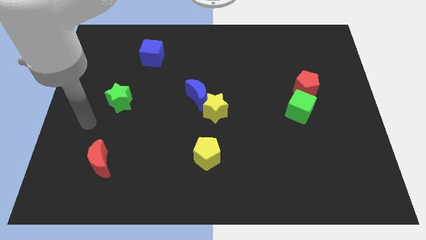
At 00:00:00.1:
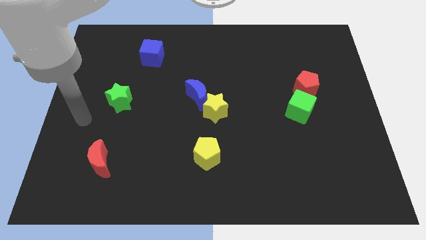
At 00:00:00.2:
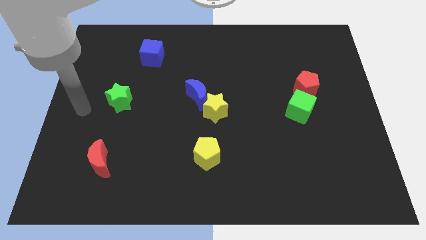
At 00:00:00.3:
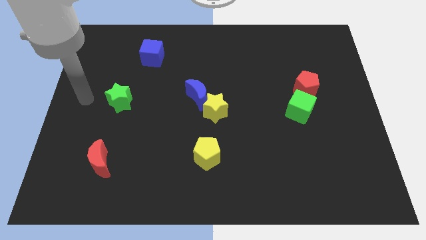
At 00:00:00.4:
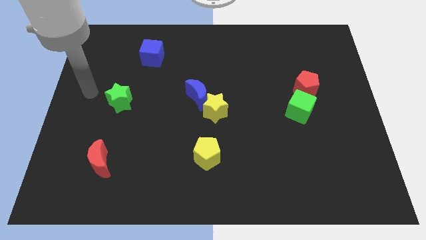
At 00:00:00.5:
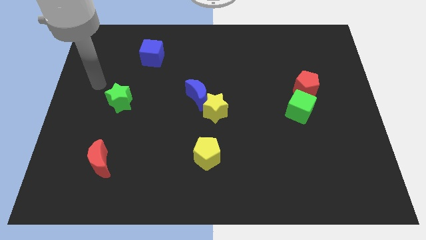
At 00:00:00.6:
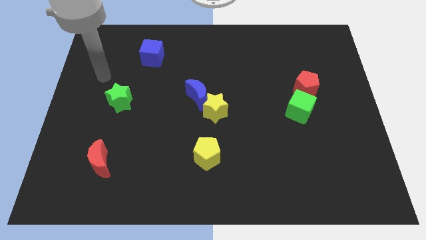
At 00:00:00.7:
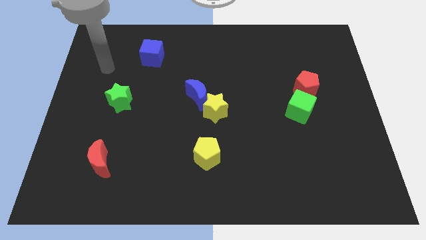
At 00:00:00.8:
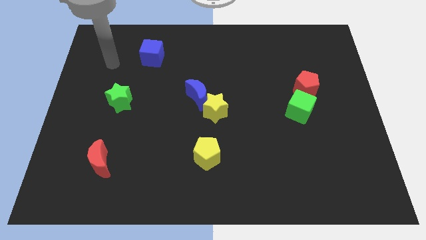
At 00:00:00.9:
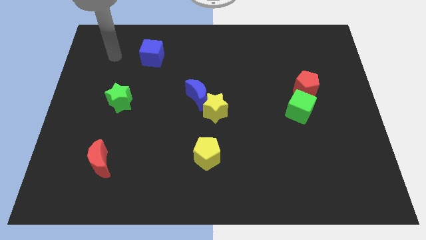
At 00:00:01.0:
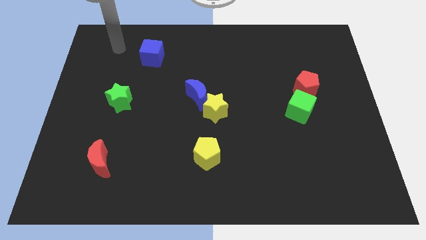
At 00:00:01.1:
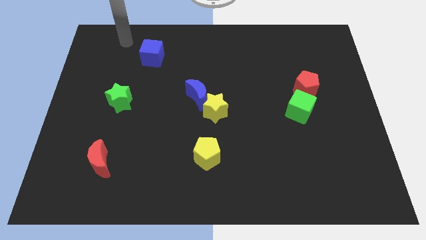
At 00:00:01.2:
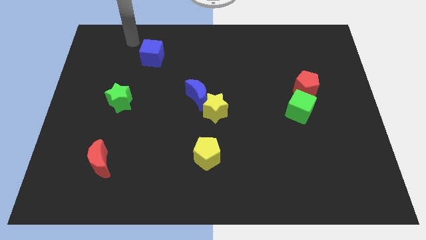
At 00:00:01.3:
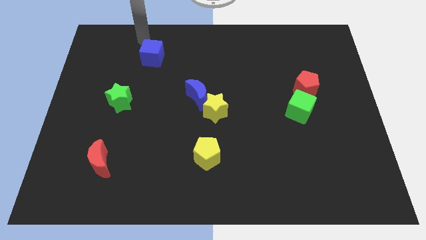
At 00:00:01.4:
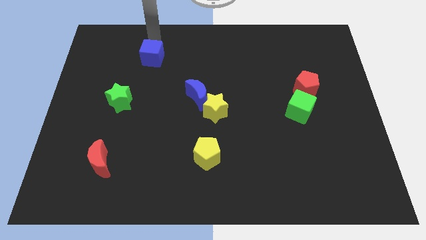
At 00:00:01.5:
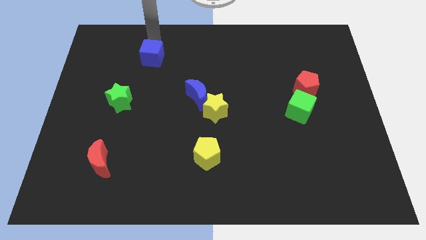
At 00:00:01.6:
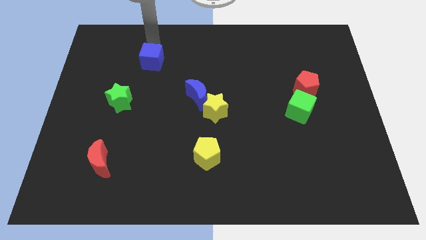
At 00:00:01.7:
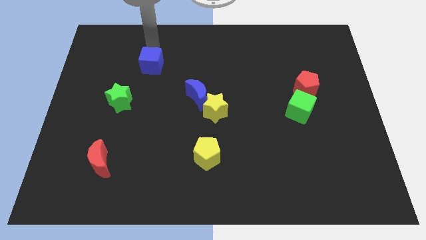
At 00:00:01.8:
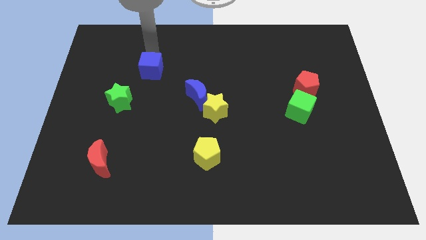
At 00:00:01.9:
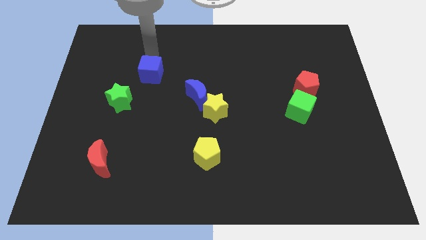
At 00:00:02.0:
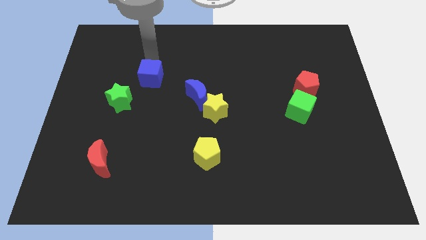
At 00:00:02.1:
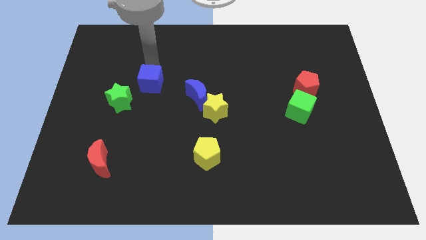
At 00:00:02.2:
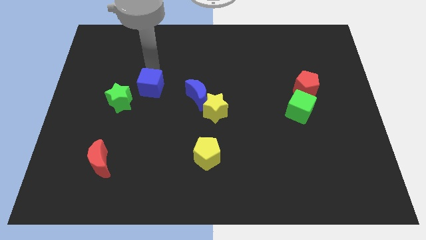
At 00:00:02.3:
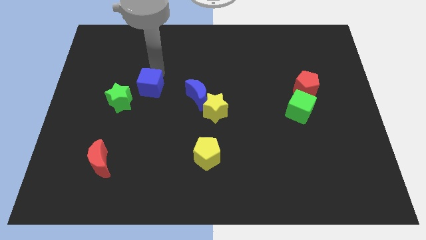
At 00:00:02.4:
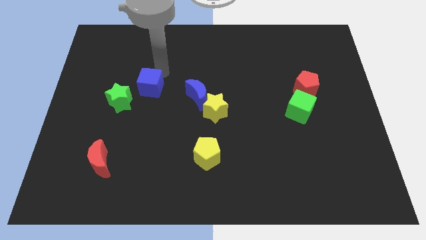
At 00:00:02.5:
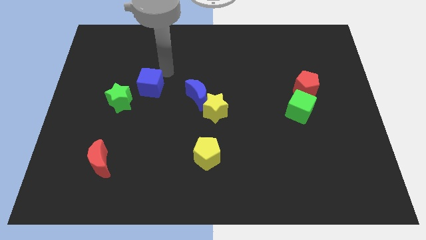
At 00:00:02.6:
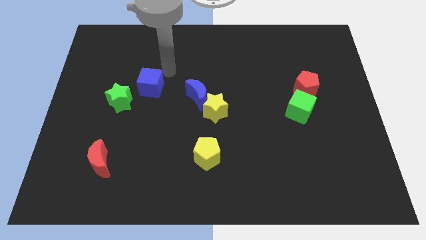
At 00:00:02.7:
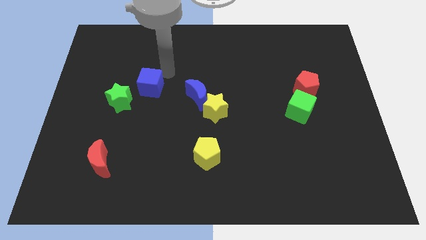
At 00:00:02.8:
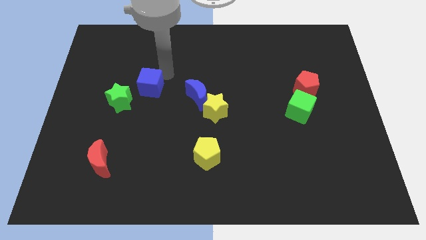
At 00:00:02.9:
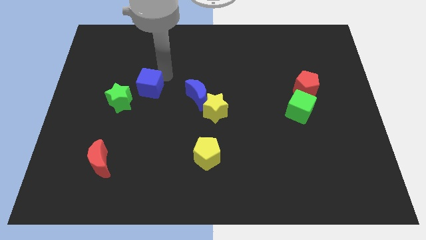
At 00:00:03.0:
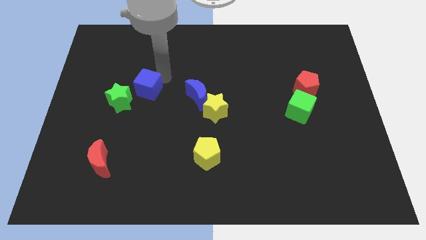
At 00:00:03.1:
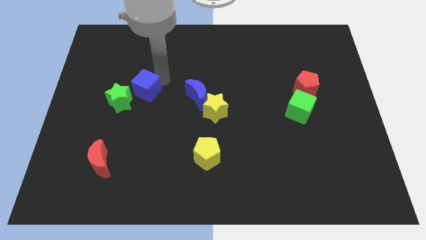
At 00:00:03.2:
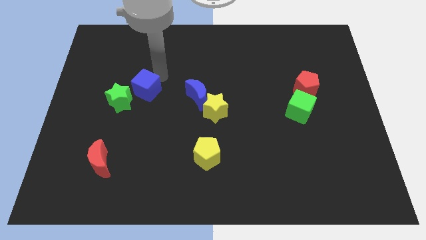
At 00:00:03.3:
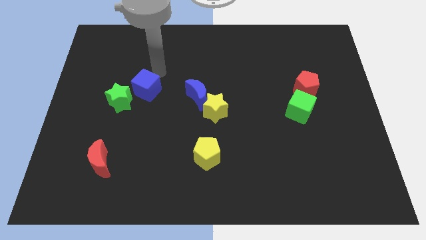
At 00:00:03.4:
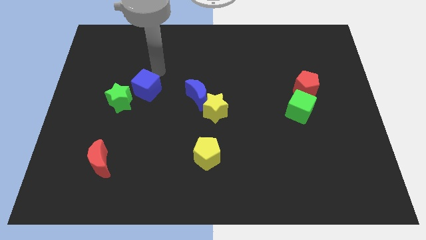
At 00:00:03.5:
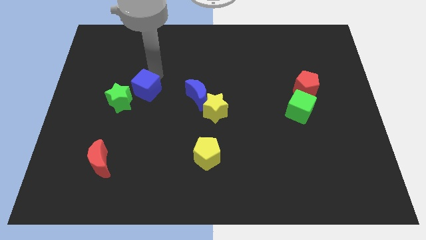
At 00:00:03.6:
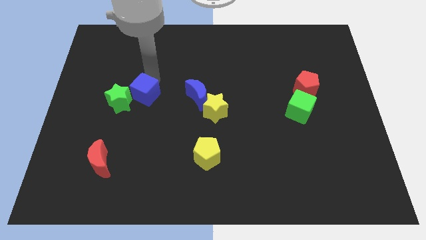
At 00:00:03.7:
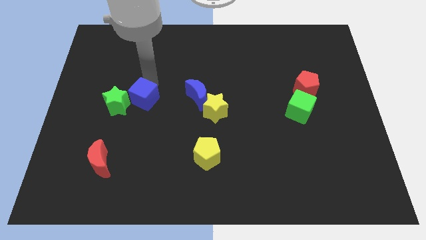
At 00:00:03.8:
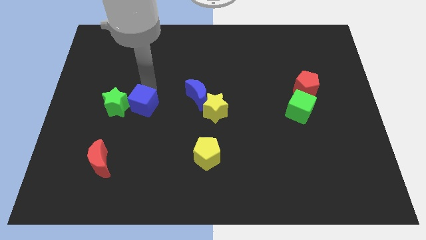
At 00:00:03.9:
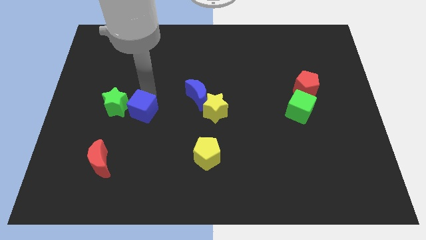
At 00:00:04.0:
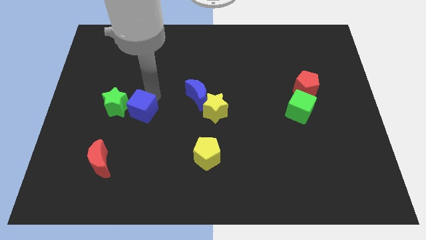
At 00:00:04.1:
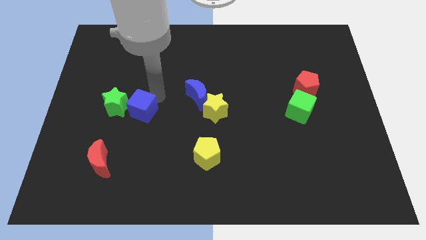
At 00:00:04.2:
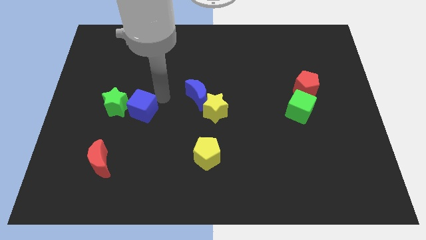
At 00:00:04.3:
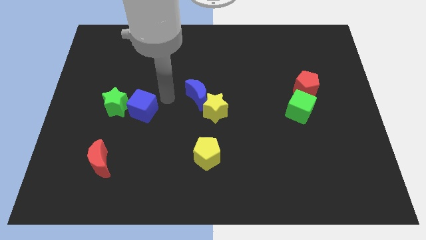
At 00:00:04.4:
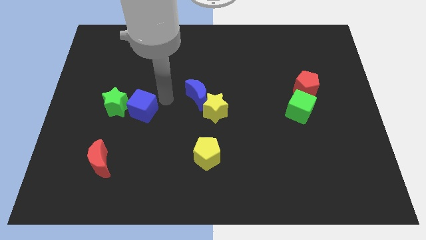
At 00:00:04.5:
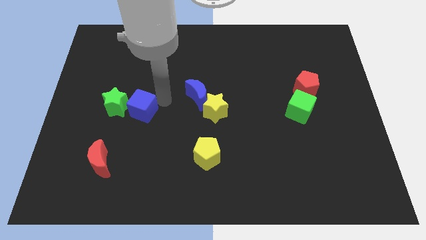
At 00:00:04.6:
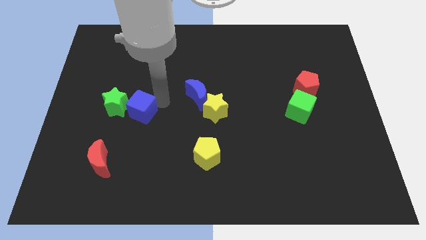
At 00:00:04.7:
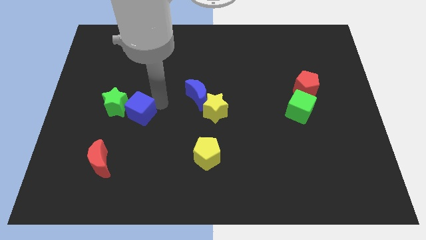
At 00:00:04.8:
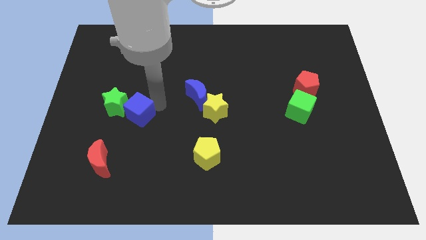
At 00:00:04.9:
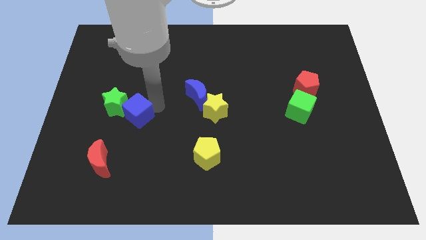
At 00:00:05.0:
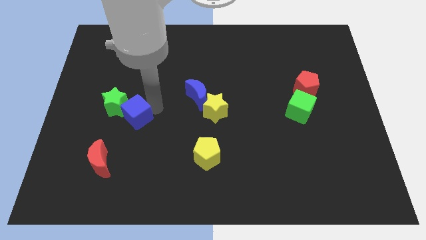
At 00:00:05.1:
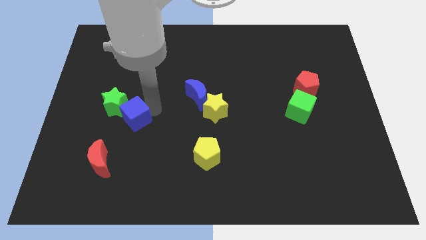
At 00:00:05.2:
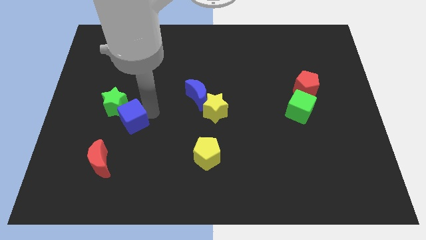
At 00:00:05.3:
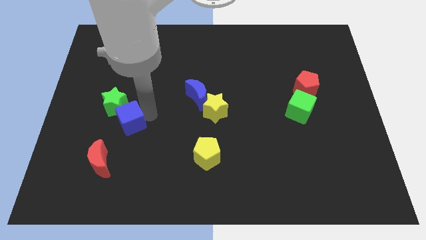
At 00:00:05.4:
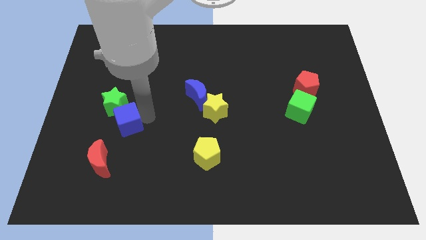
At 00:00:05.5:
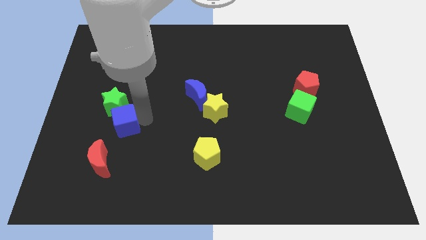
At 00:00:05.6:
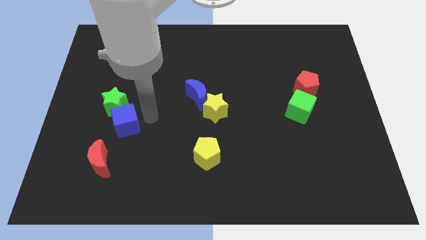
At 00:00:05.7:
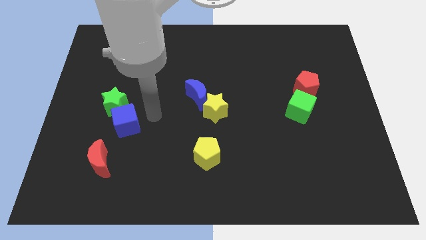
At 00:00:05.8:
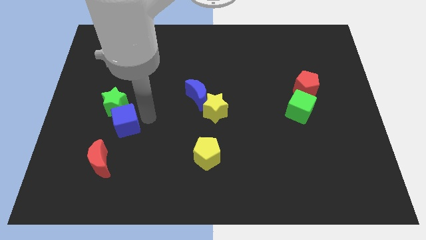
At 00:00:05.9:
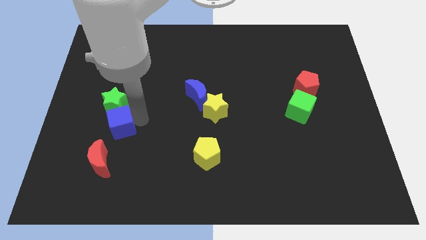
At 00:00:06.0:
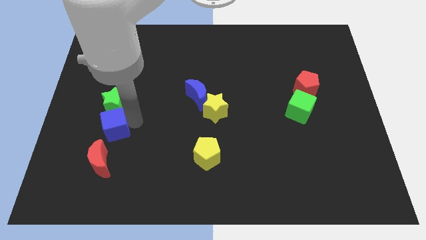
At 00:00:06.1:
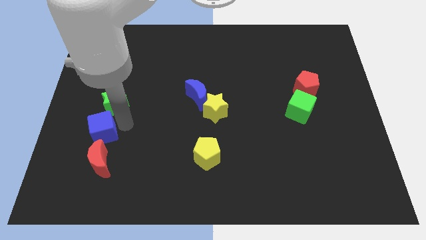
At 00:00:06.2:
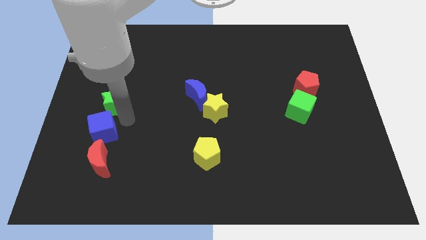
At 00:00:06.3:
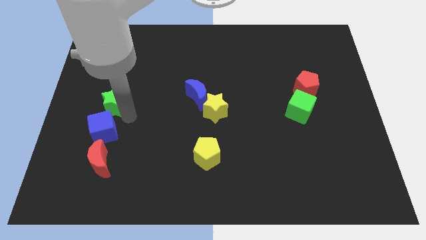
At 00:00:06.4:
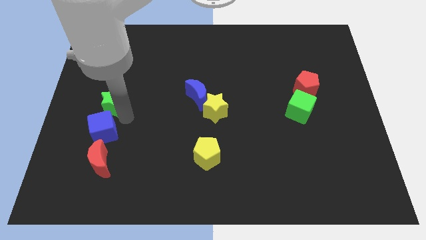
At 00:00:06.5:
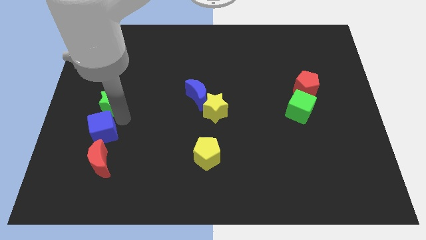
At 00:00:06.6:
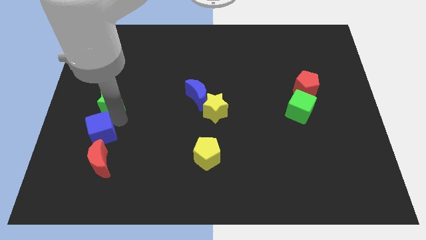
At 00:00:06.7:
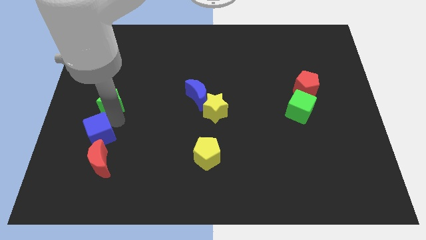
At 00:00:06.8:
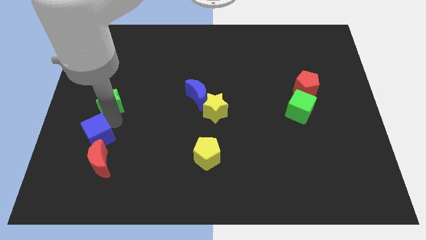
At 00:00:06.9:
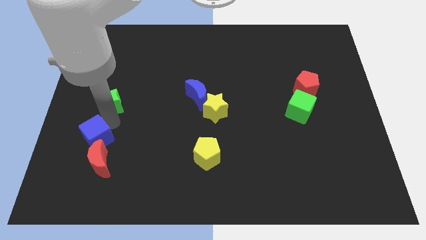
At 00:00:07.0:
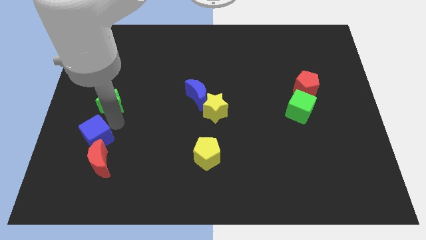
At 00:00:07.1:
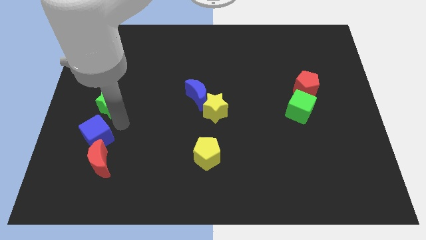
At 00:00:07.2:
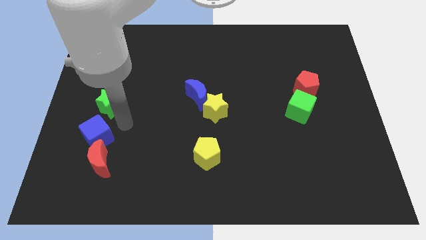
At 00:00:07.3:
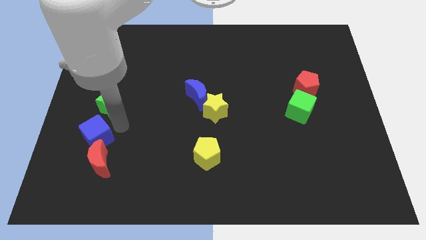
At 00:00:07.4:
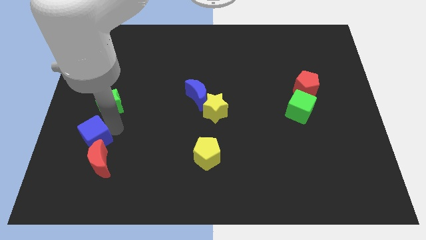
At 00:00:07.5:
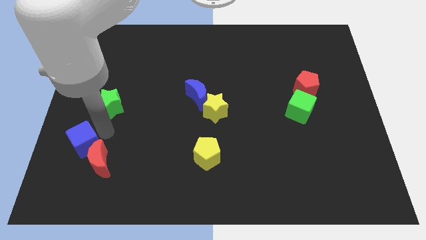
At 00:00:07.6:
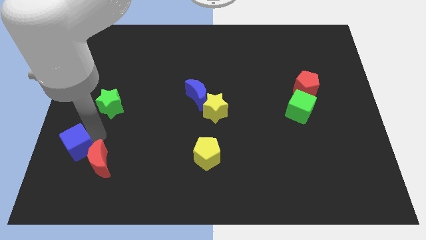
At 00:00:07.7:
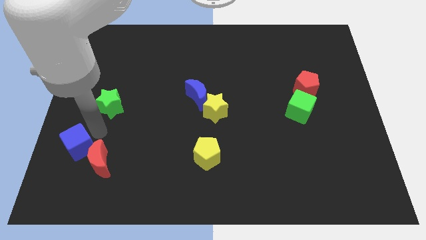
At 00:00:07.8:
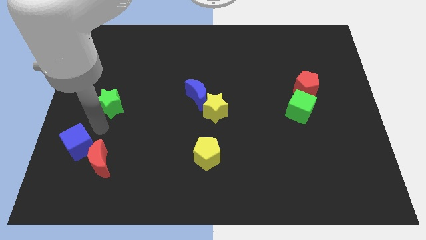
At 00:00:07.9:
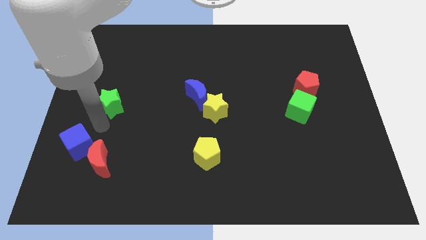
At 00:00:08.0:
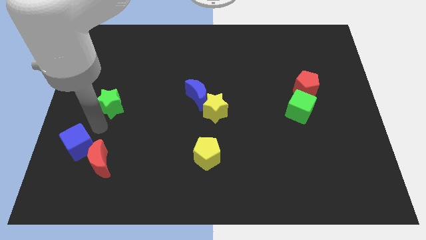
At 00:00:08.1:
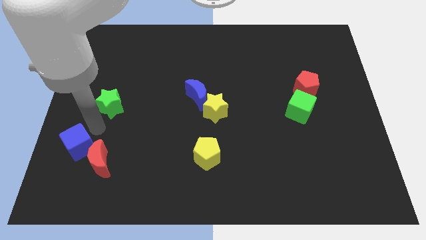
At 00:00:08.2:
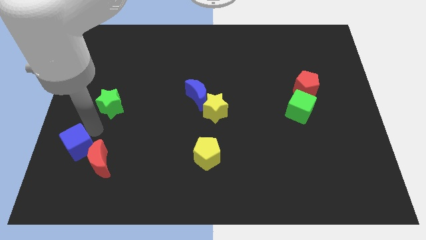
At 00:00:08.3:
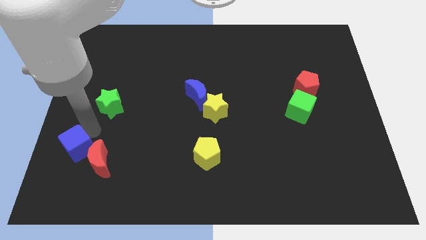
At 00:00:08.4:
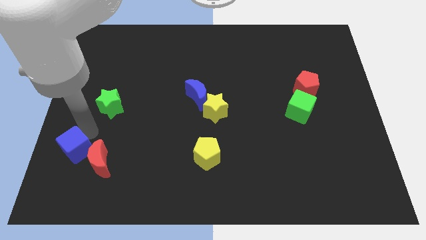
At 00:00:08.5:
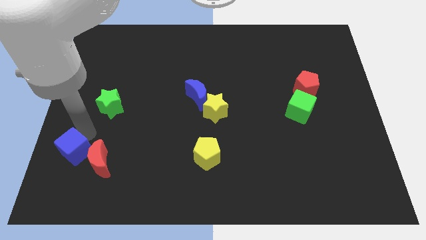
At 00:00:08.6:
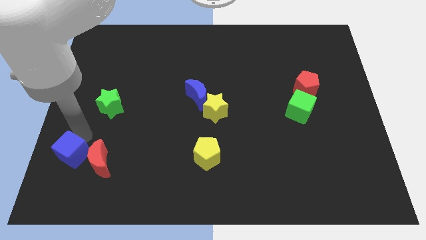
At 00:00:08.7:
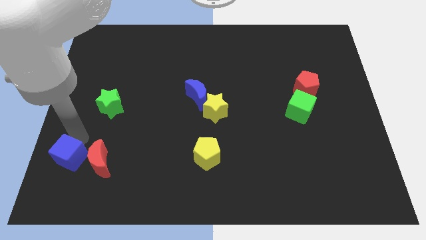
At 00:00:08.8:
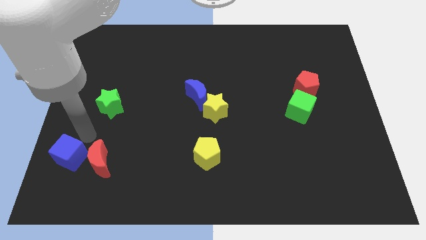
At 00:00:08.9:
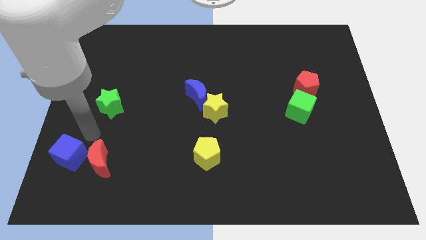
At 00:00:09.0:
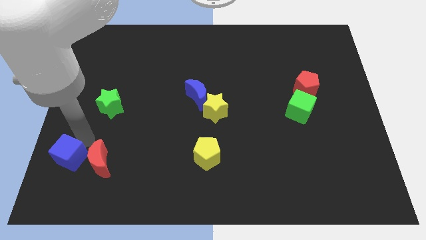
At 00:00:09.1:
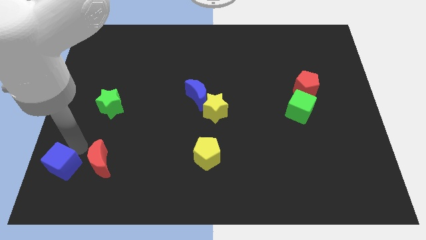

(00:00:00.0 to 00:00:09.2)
slide the blue cube to the bottom left
